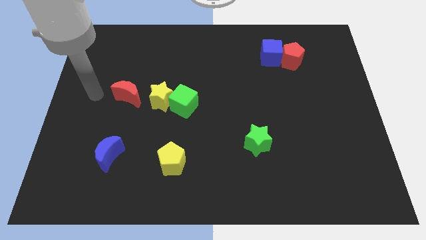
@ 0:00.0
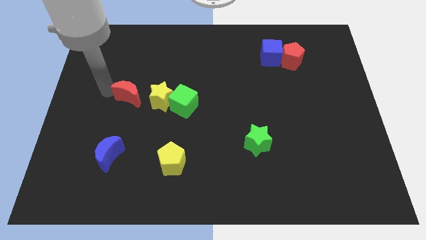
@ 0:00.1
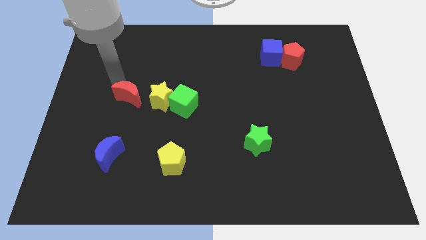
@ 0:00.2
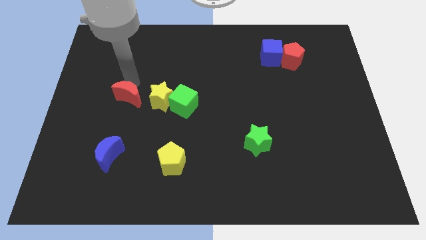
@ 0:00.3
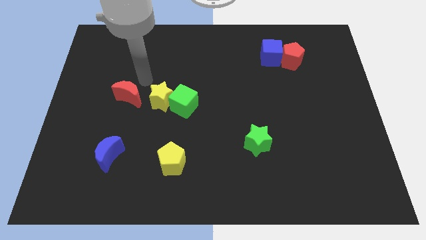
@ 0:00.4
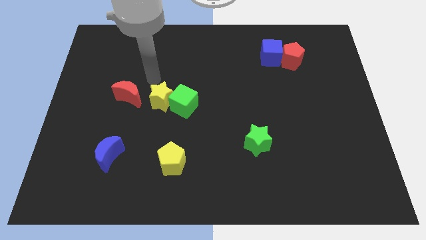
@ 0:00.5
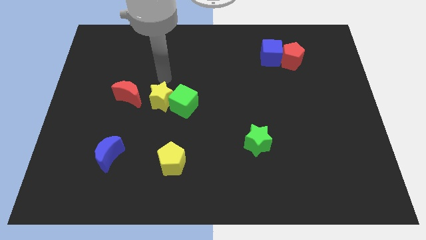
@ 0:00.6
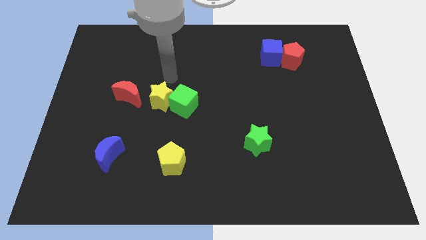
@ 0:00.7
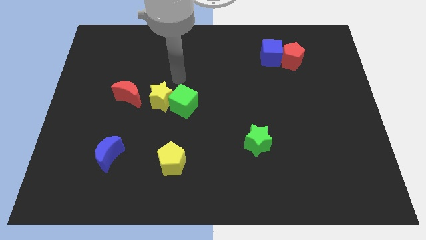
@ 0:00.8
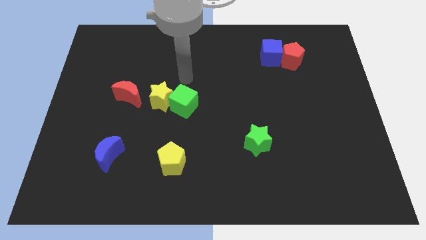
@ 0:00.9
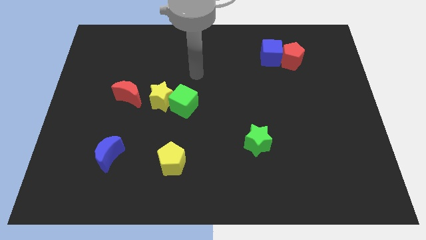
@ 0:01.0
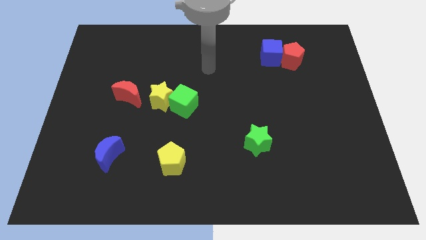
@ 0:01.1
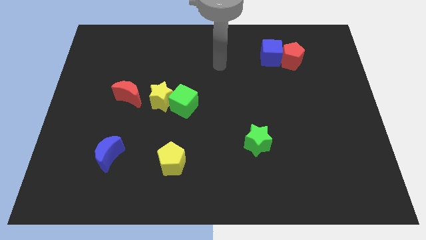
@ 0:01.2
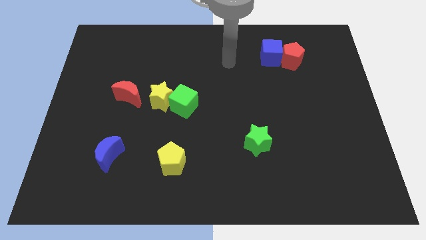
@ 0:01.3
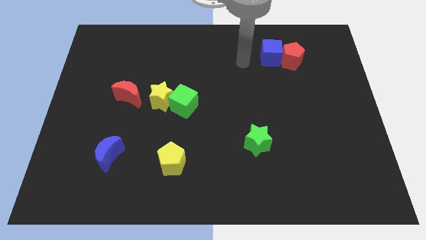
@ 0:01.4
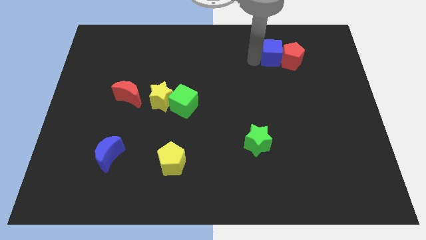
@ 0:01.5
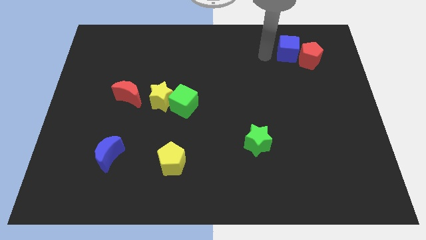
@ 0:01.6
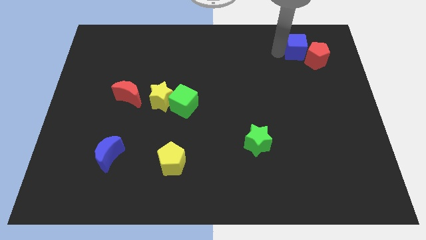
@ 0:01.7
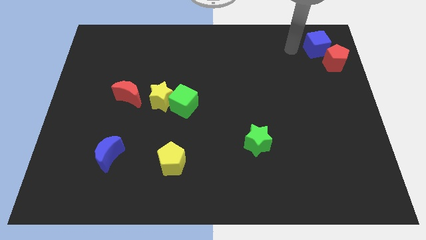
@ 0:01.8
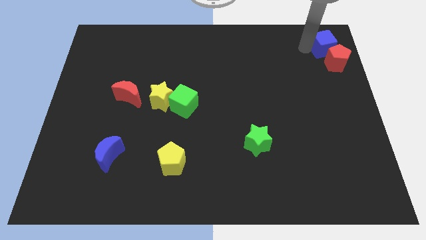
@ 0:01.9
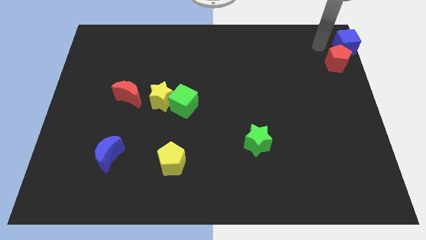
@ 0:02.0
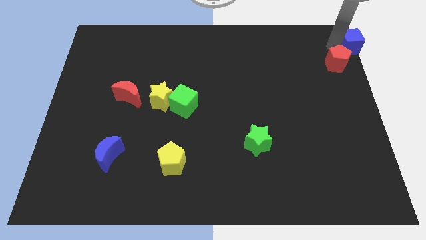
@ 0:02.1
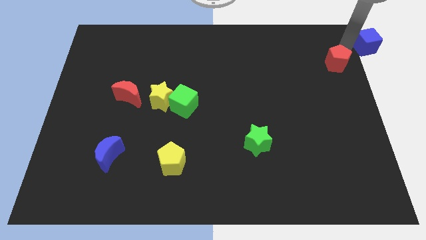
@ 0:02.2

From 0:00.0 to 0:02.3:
pull the red pentagon apart from the blue cube

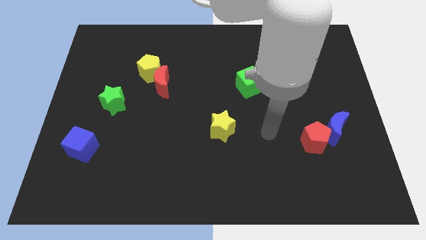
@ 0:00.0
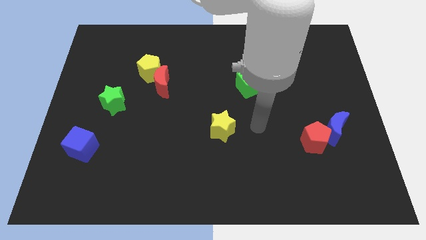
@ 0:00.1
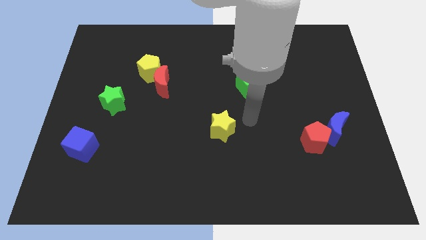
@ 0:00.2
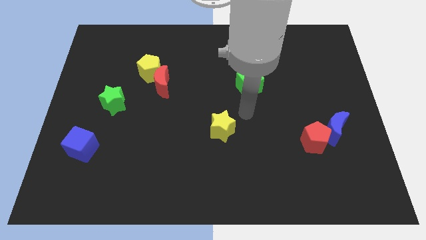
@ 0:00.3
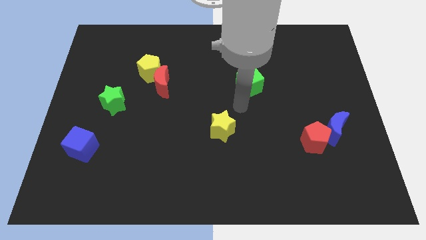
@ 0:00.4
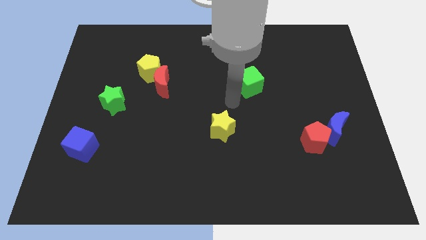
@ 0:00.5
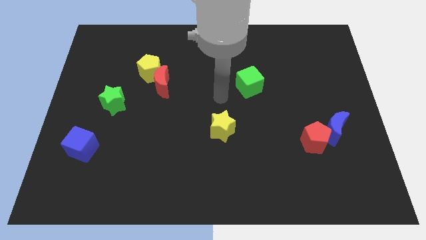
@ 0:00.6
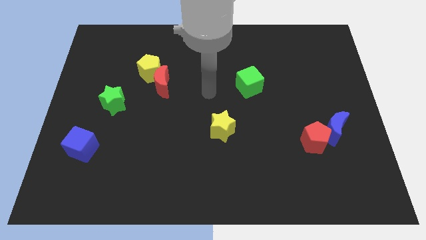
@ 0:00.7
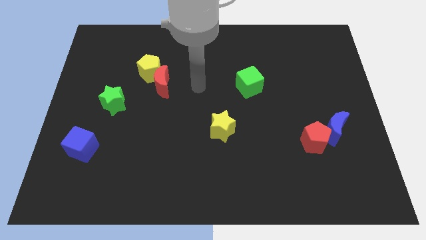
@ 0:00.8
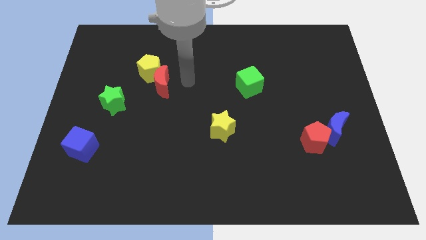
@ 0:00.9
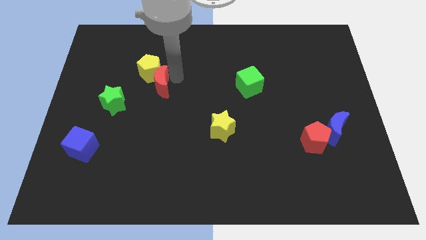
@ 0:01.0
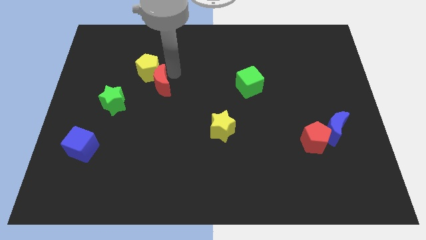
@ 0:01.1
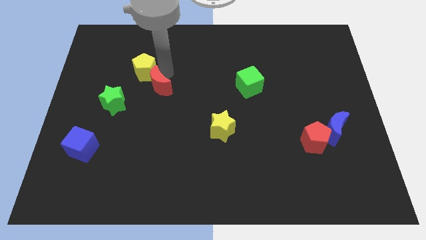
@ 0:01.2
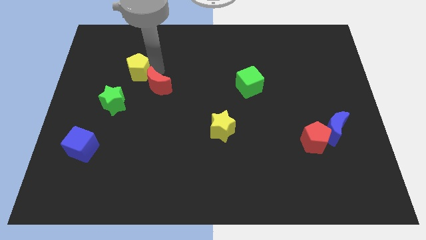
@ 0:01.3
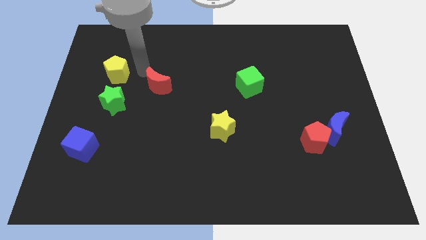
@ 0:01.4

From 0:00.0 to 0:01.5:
separate the red moon from the yellow pentagon

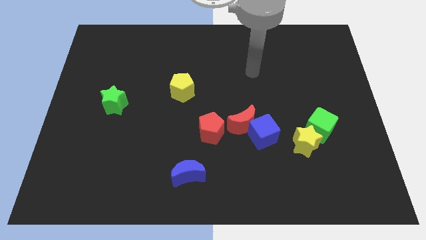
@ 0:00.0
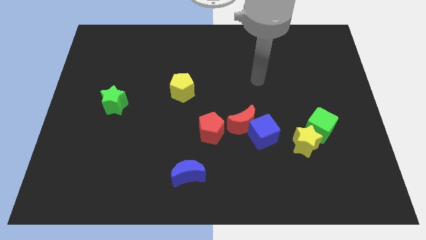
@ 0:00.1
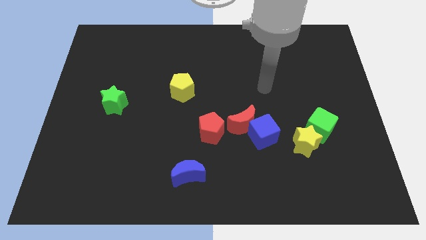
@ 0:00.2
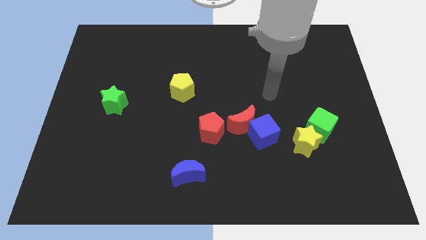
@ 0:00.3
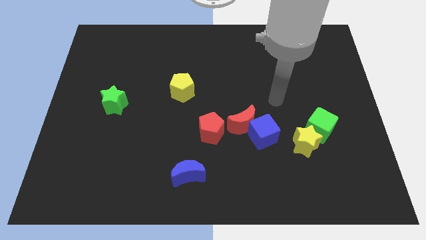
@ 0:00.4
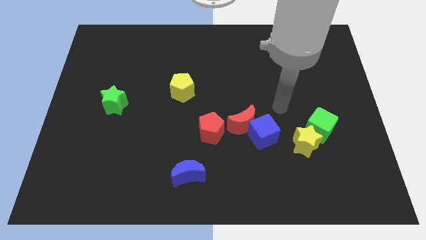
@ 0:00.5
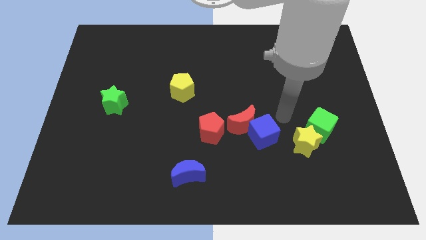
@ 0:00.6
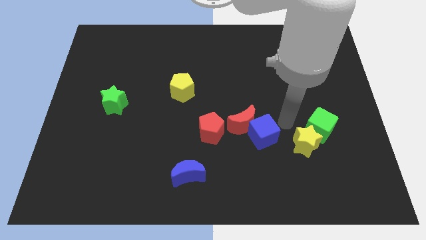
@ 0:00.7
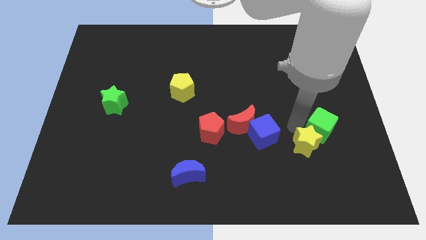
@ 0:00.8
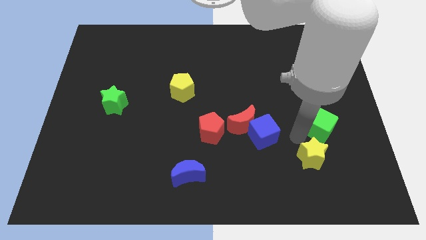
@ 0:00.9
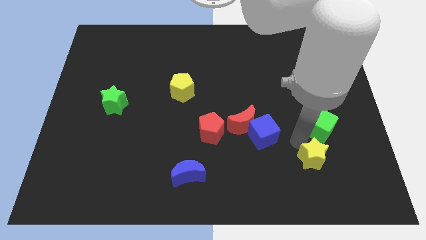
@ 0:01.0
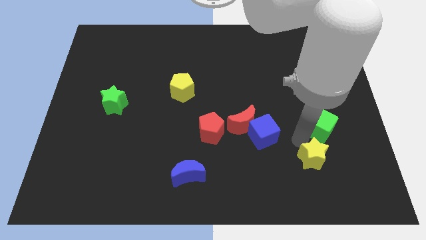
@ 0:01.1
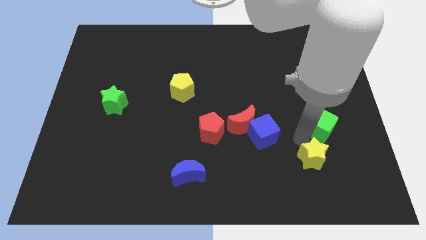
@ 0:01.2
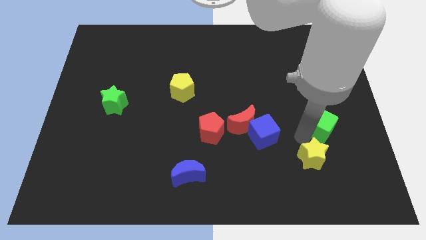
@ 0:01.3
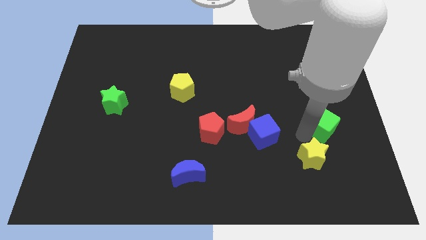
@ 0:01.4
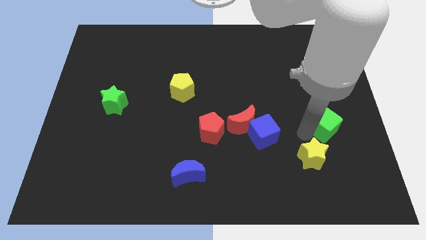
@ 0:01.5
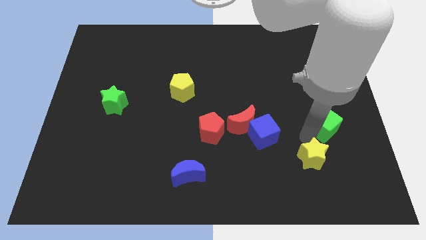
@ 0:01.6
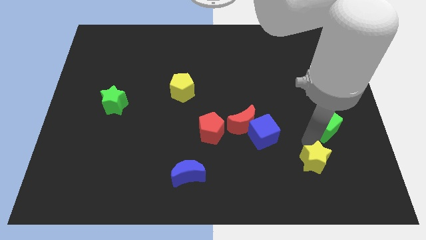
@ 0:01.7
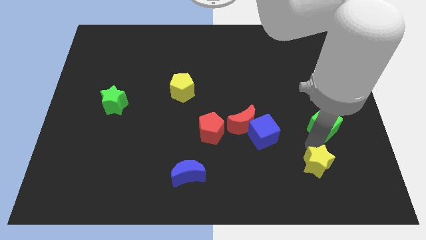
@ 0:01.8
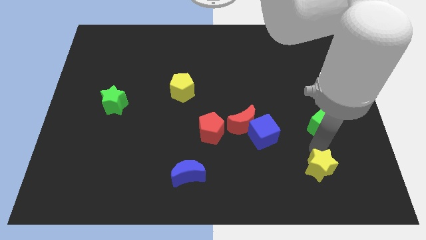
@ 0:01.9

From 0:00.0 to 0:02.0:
separate the green cube from the yellow star

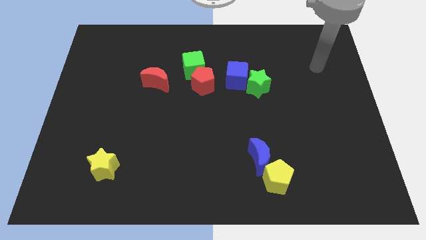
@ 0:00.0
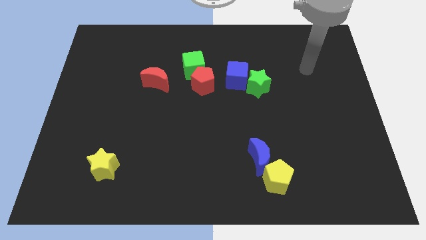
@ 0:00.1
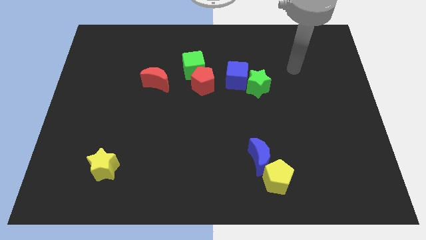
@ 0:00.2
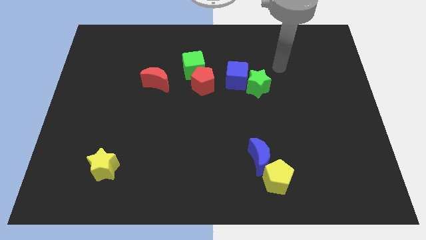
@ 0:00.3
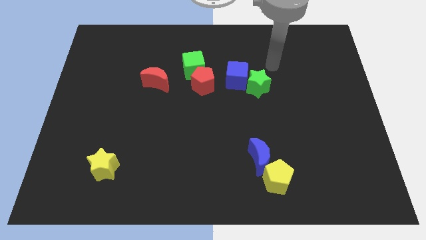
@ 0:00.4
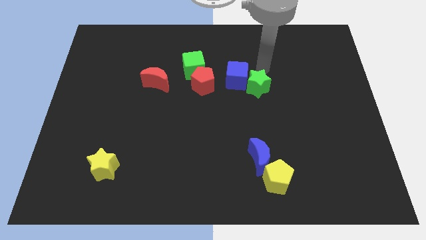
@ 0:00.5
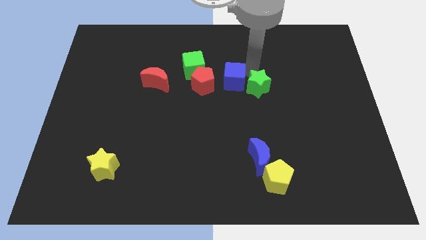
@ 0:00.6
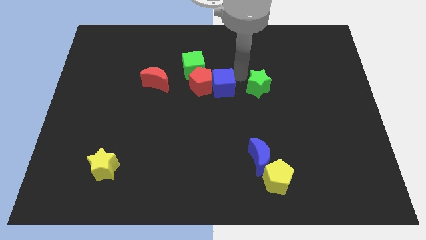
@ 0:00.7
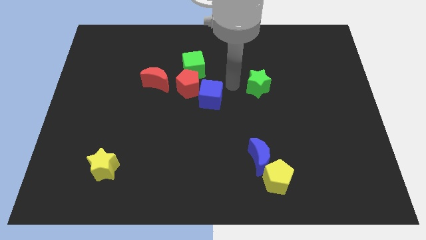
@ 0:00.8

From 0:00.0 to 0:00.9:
move the green star away from the blue cube

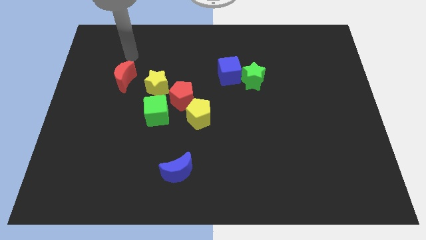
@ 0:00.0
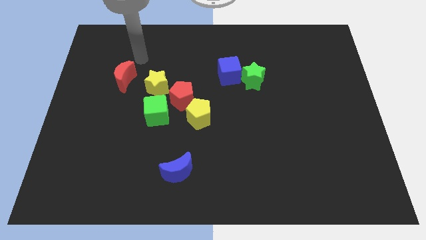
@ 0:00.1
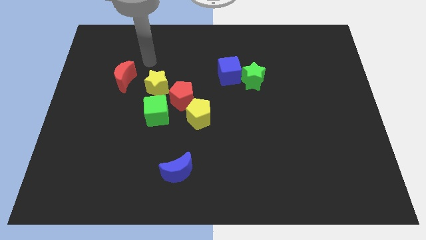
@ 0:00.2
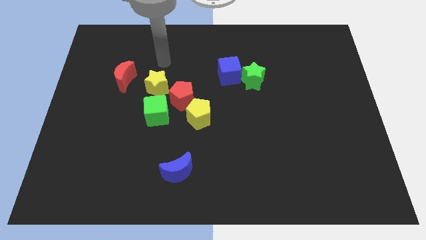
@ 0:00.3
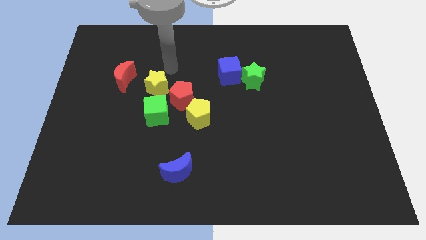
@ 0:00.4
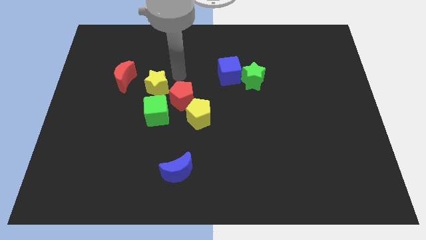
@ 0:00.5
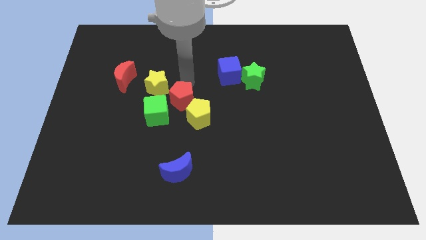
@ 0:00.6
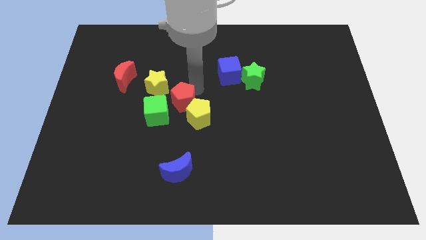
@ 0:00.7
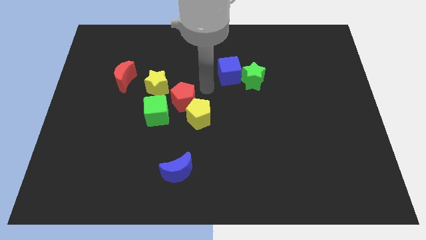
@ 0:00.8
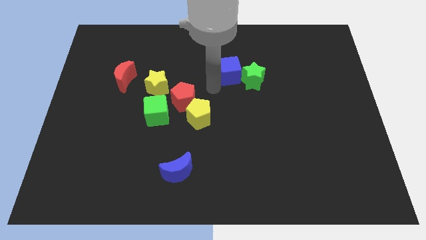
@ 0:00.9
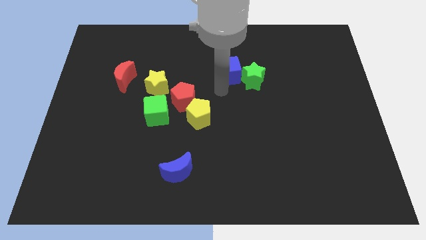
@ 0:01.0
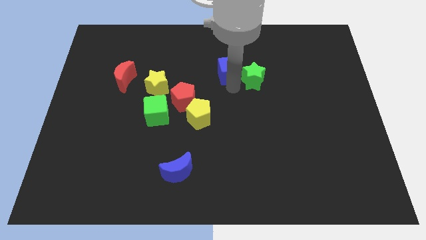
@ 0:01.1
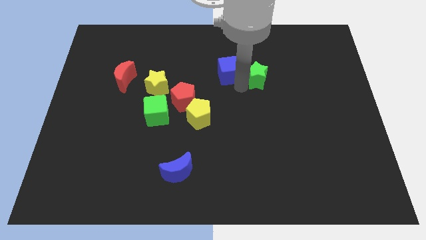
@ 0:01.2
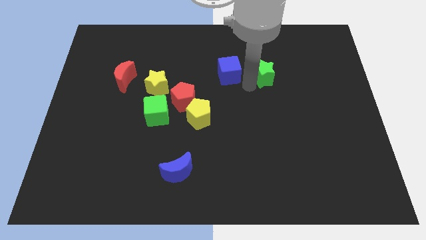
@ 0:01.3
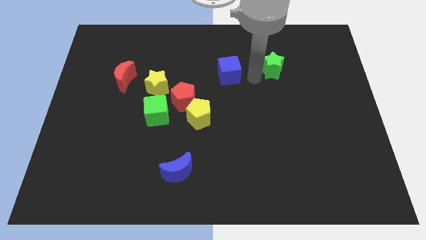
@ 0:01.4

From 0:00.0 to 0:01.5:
move the blue cube away from the green star

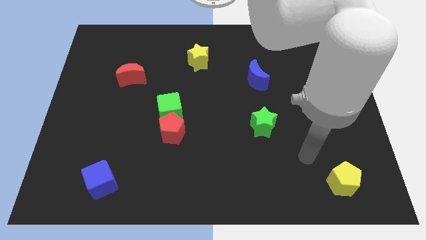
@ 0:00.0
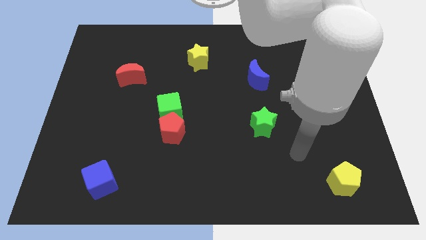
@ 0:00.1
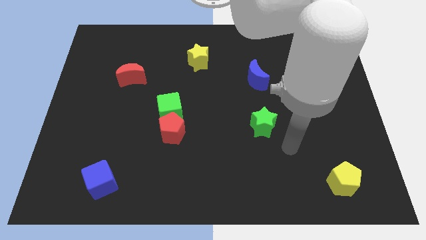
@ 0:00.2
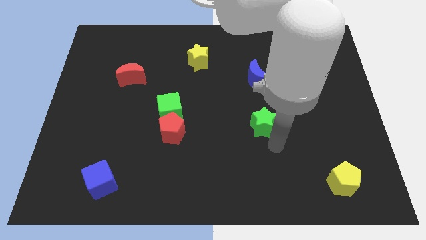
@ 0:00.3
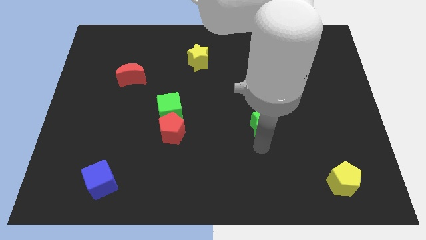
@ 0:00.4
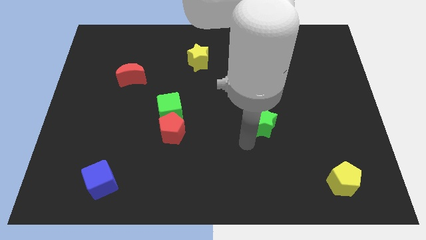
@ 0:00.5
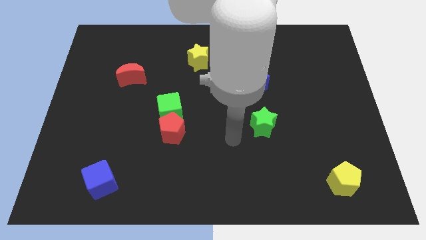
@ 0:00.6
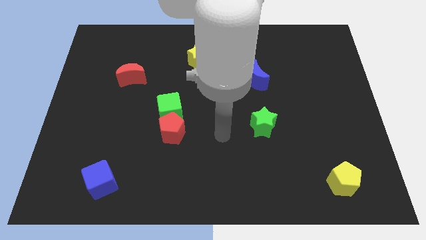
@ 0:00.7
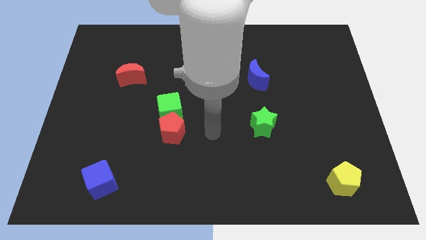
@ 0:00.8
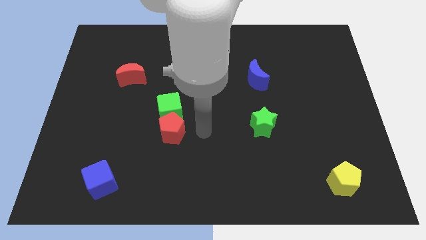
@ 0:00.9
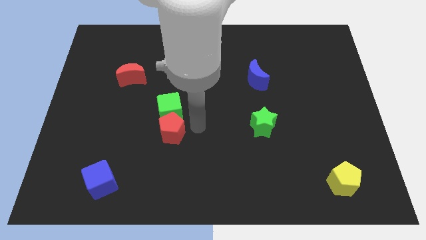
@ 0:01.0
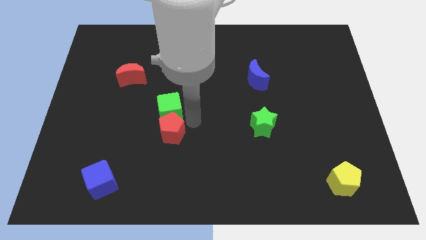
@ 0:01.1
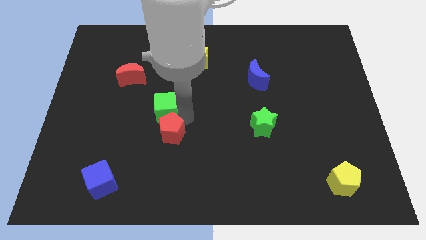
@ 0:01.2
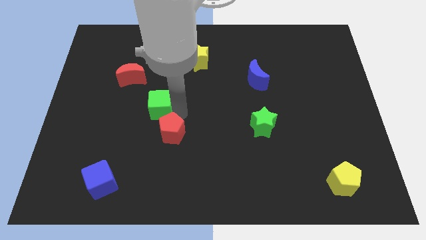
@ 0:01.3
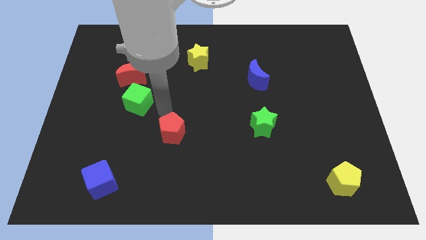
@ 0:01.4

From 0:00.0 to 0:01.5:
pull the red pentagon apart from the green cube
